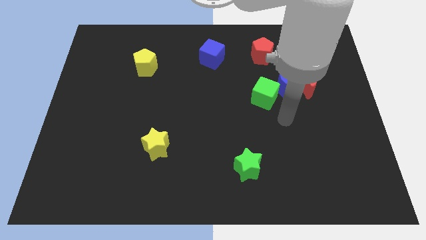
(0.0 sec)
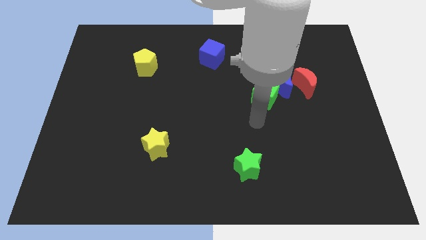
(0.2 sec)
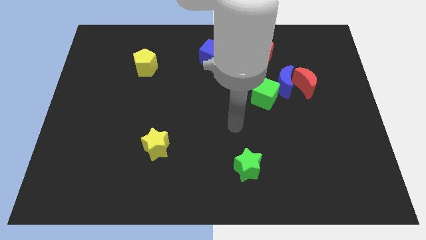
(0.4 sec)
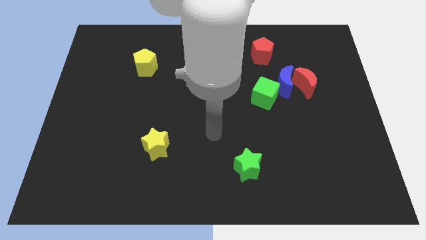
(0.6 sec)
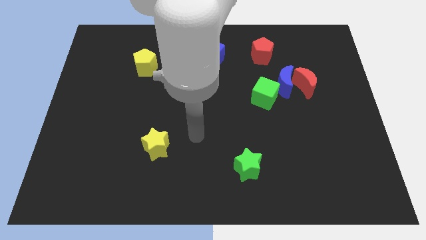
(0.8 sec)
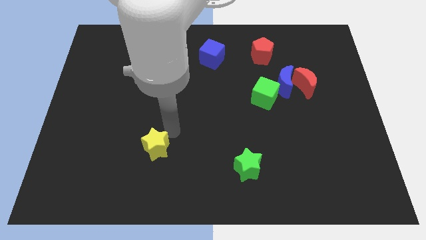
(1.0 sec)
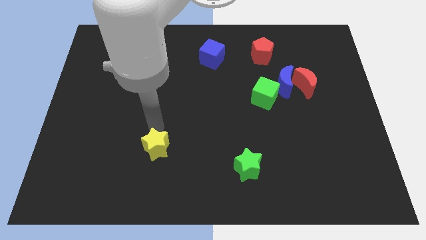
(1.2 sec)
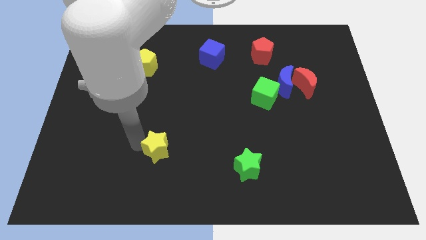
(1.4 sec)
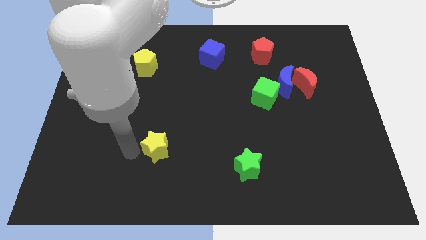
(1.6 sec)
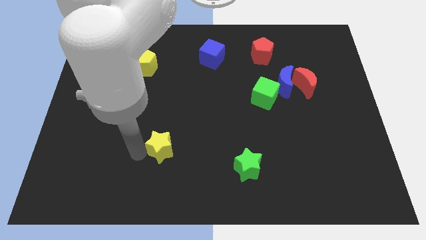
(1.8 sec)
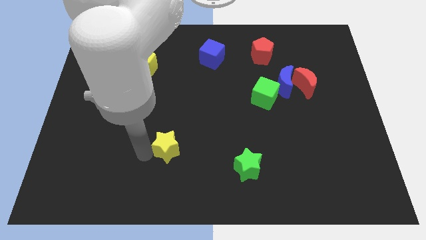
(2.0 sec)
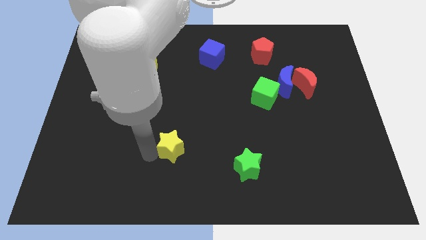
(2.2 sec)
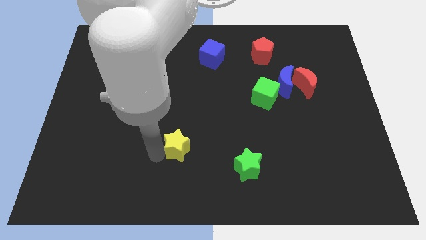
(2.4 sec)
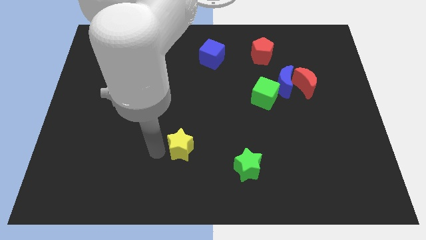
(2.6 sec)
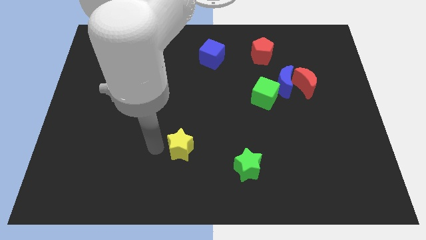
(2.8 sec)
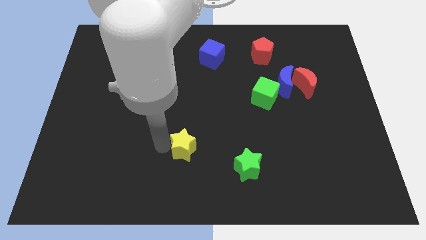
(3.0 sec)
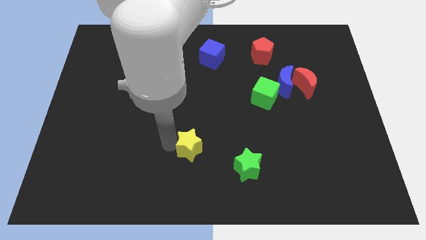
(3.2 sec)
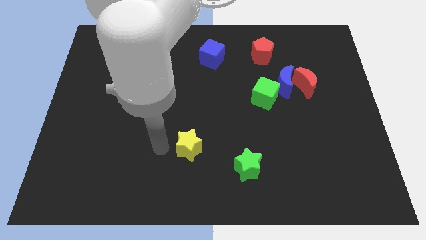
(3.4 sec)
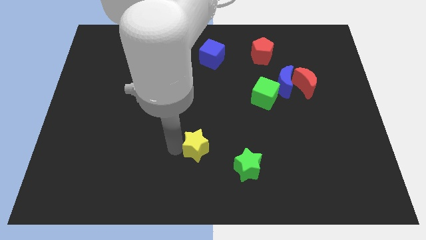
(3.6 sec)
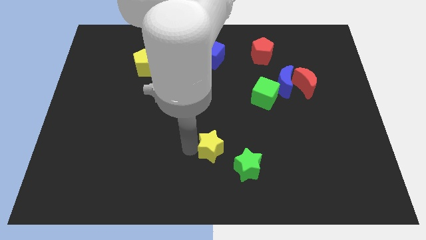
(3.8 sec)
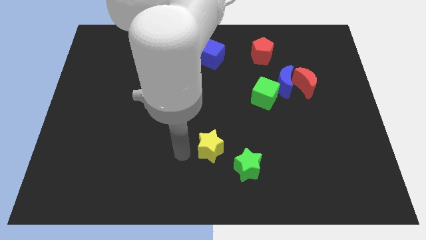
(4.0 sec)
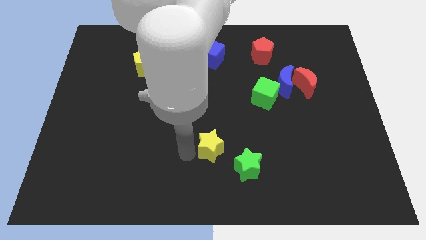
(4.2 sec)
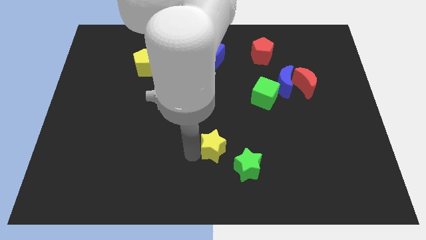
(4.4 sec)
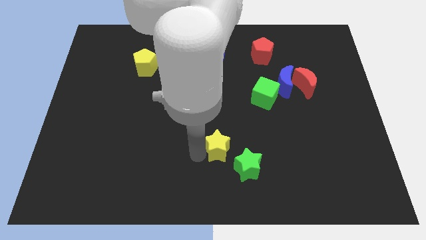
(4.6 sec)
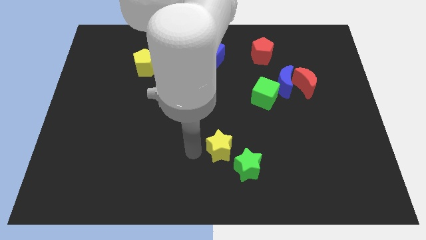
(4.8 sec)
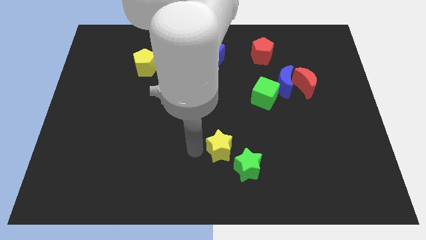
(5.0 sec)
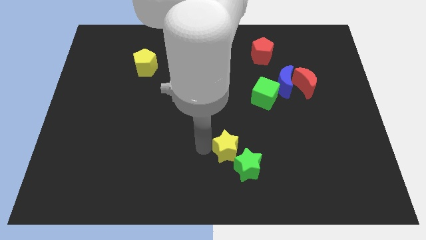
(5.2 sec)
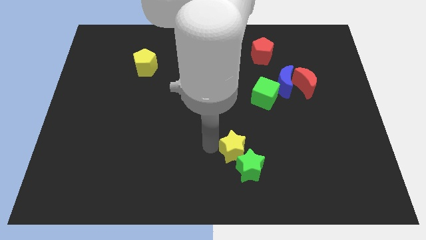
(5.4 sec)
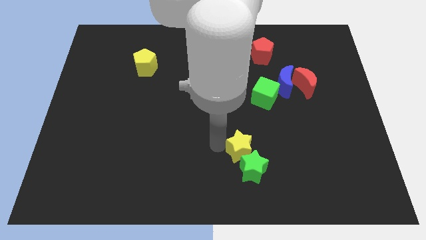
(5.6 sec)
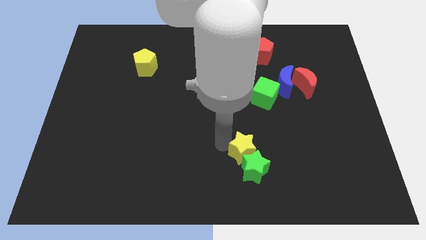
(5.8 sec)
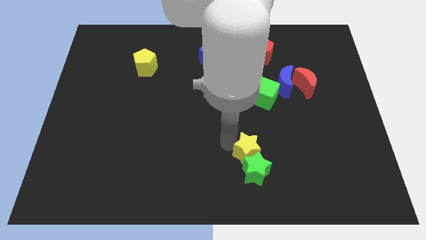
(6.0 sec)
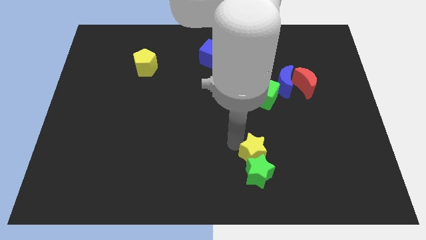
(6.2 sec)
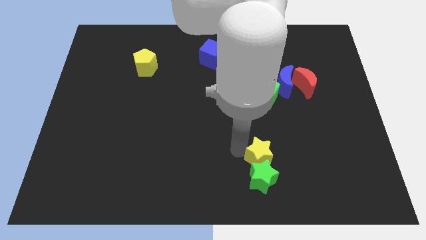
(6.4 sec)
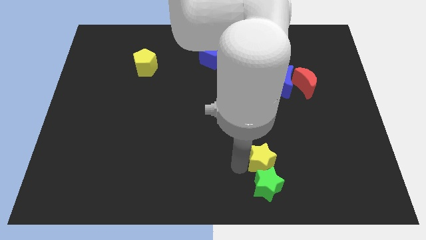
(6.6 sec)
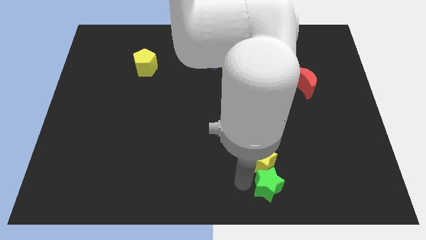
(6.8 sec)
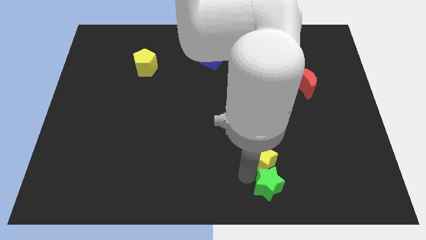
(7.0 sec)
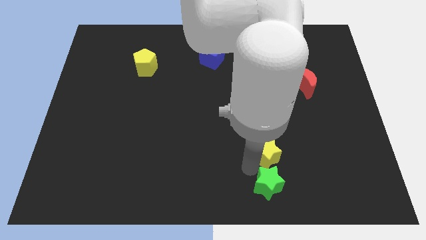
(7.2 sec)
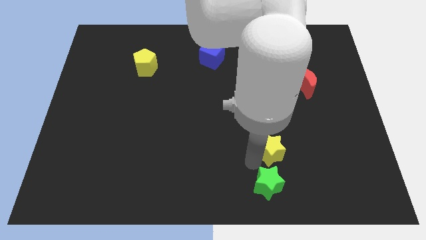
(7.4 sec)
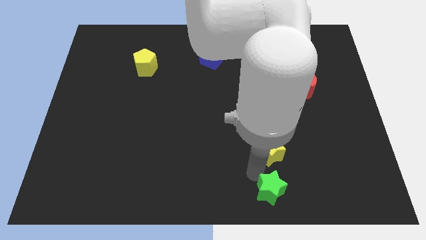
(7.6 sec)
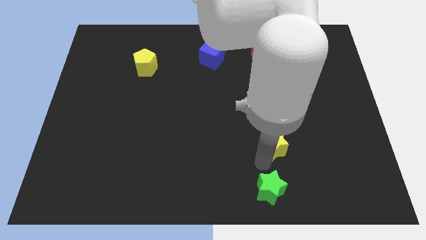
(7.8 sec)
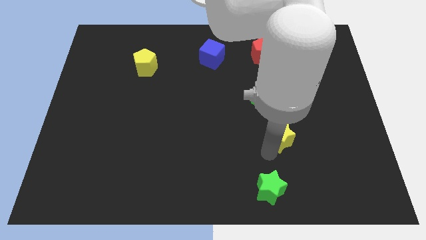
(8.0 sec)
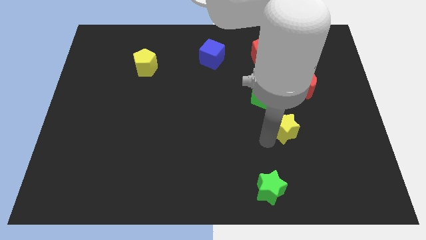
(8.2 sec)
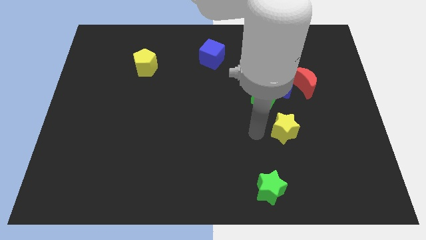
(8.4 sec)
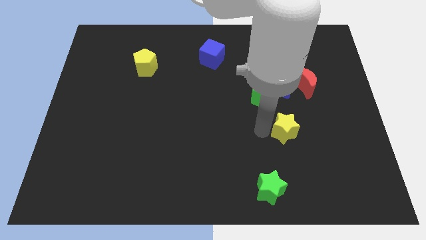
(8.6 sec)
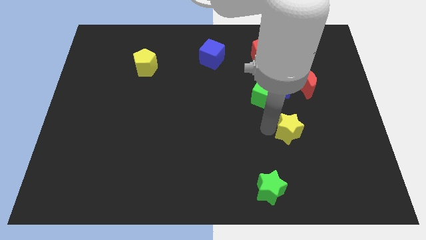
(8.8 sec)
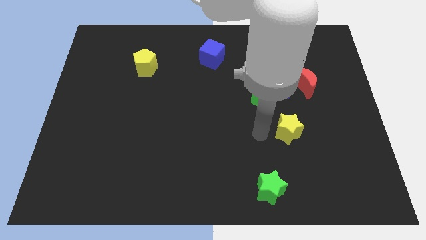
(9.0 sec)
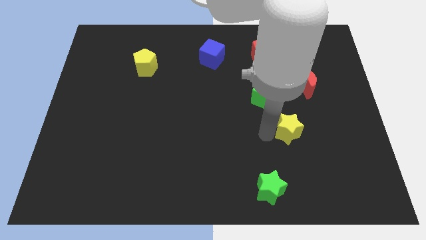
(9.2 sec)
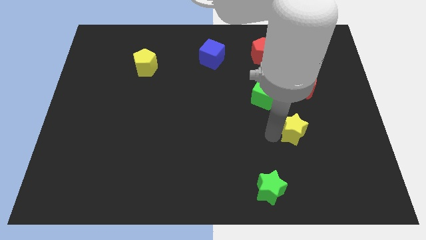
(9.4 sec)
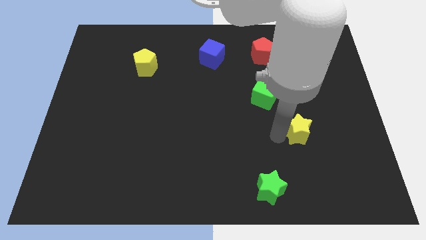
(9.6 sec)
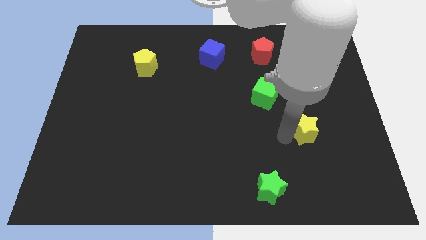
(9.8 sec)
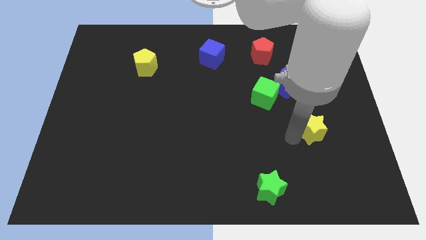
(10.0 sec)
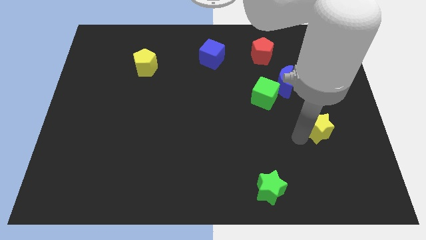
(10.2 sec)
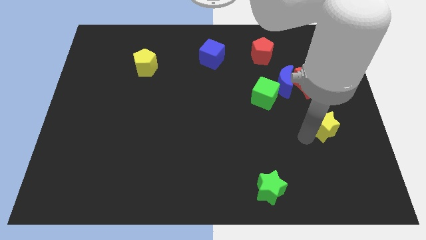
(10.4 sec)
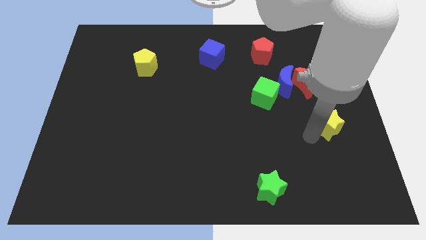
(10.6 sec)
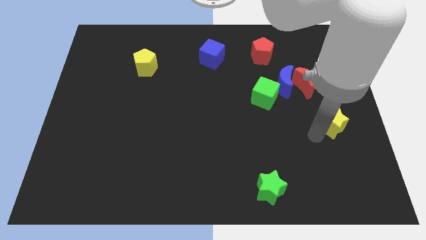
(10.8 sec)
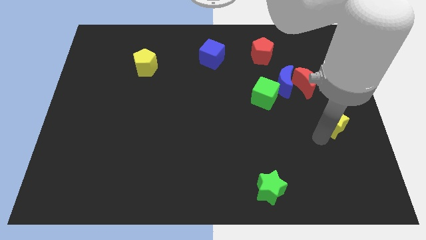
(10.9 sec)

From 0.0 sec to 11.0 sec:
put the yellow star to the right side of the board

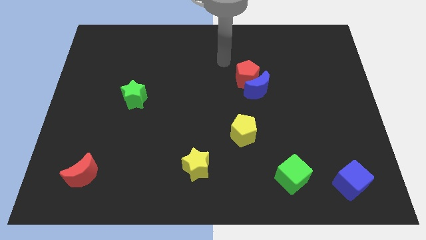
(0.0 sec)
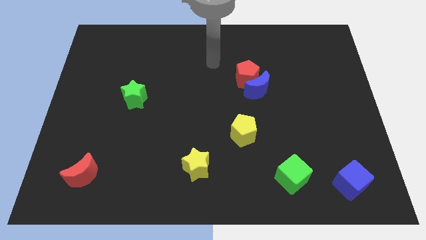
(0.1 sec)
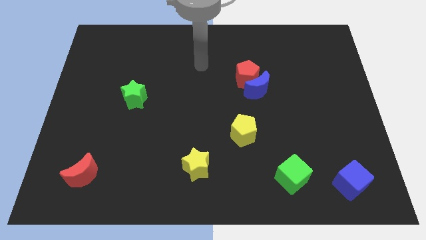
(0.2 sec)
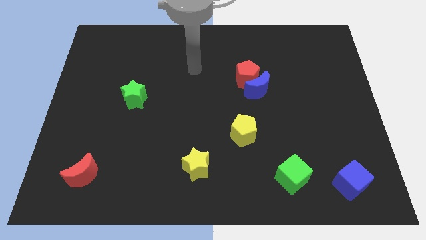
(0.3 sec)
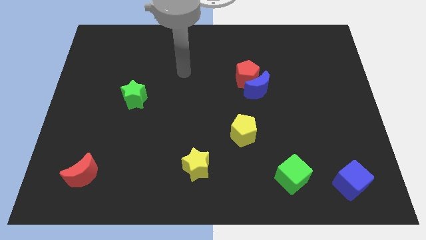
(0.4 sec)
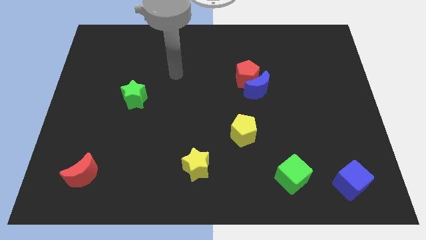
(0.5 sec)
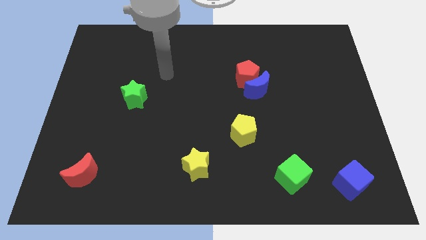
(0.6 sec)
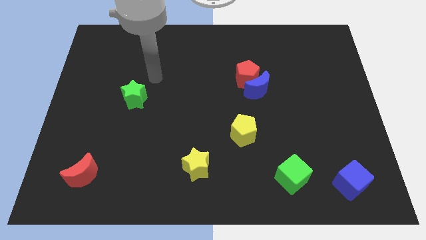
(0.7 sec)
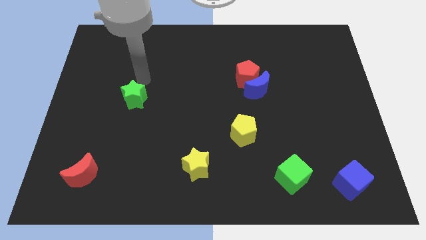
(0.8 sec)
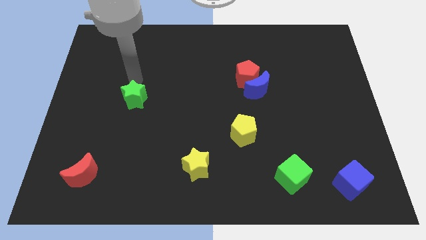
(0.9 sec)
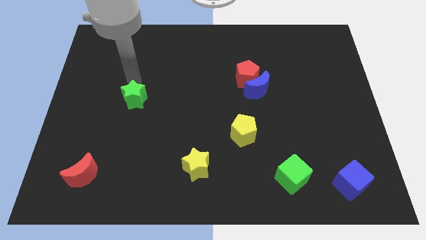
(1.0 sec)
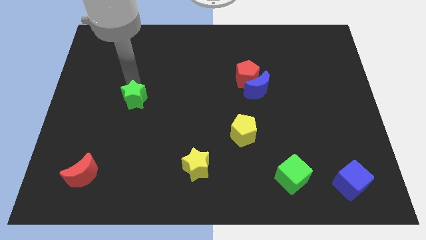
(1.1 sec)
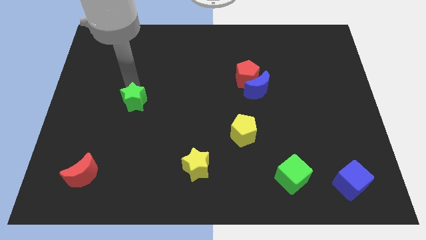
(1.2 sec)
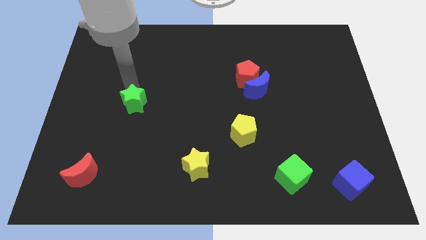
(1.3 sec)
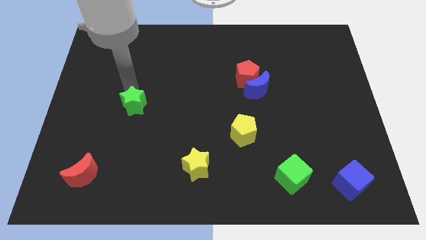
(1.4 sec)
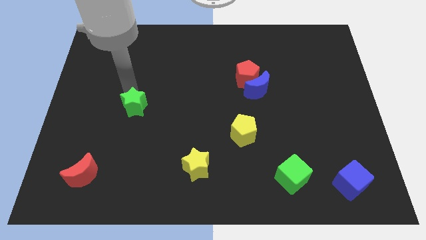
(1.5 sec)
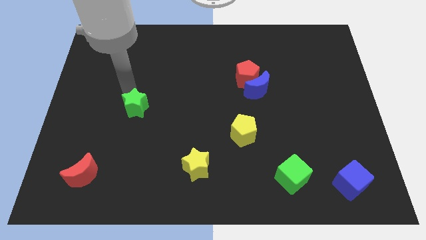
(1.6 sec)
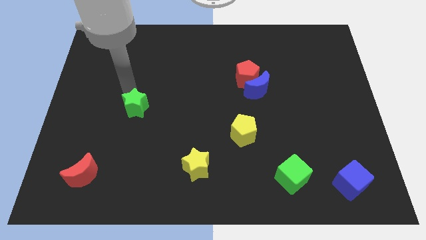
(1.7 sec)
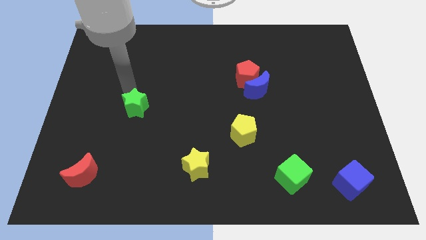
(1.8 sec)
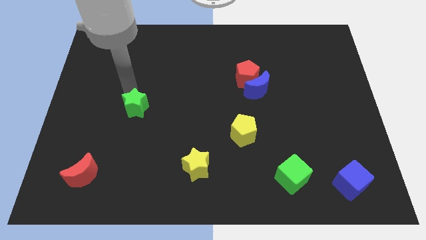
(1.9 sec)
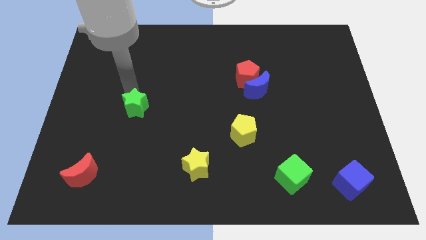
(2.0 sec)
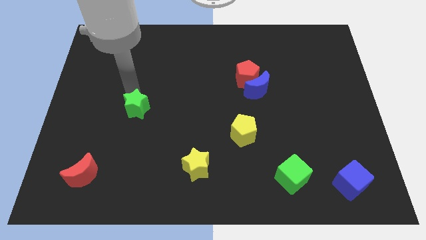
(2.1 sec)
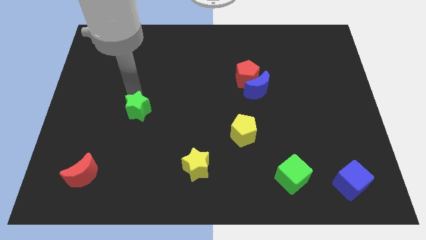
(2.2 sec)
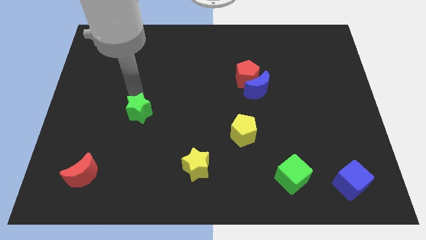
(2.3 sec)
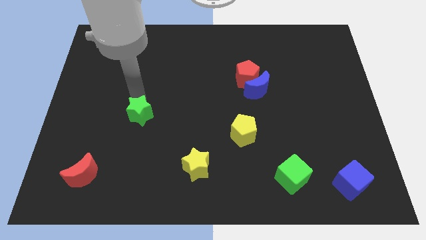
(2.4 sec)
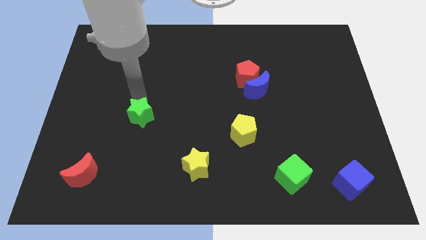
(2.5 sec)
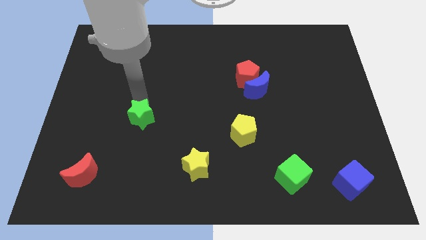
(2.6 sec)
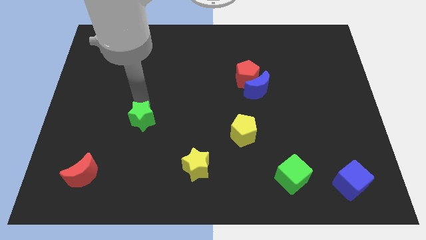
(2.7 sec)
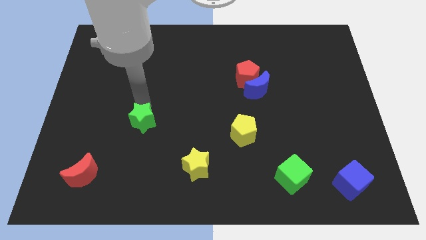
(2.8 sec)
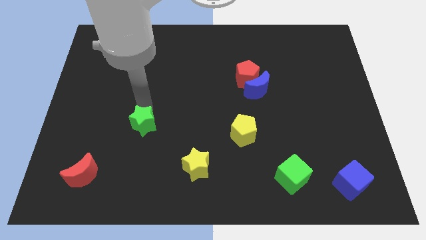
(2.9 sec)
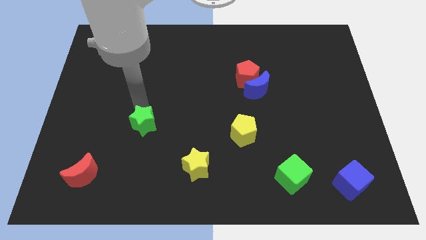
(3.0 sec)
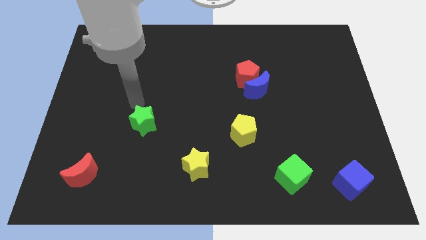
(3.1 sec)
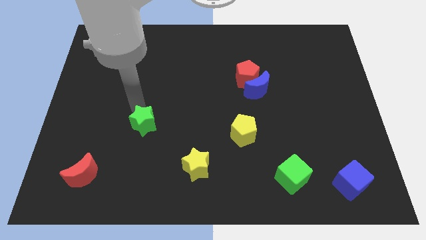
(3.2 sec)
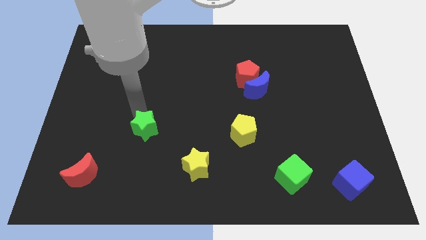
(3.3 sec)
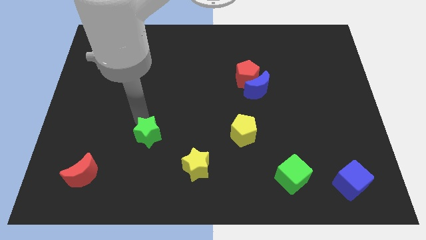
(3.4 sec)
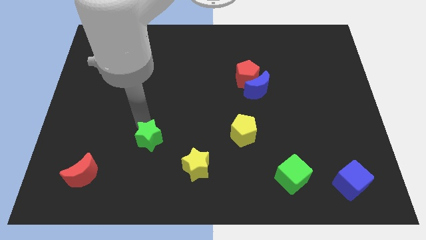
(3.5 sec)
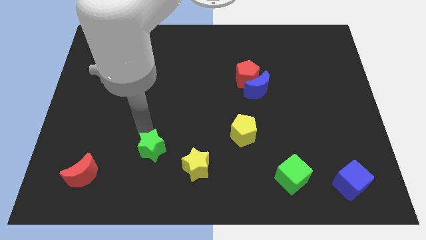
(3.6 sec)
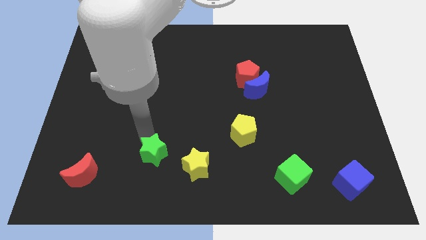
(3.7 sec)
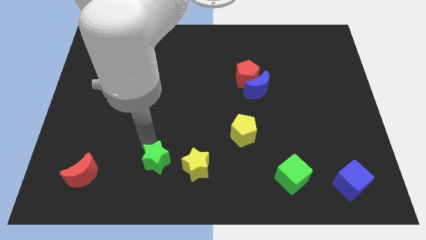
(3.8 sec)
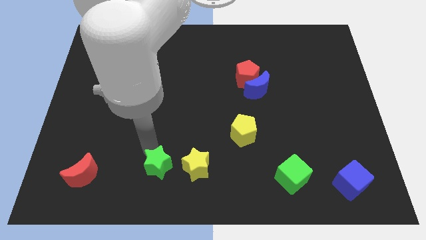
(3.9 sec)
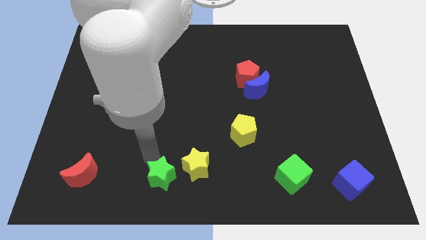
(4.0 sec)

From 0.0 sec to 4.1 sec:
push the green star to the bottom side
